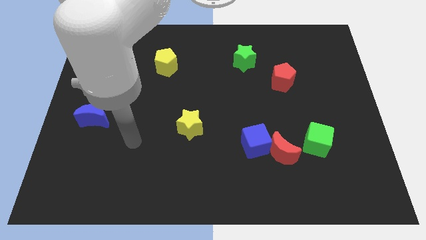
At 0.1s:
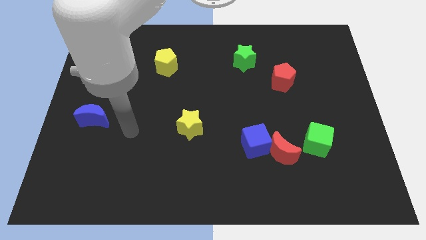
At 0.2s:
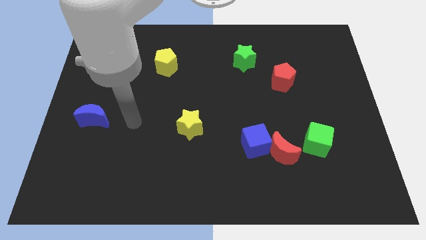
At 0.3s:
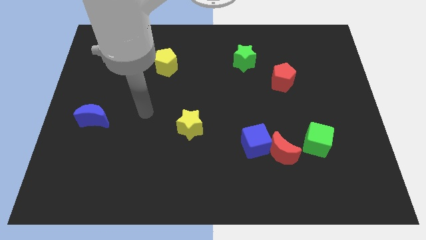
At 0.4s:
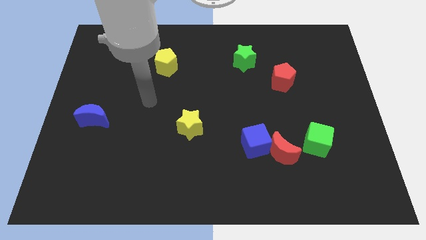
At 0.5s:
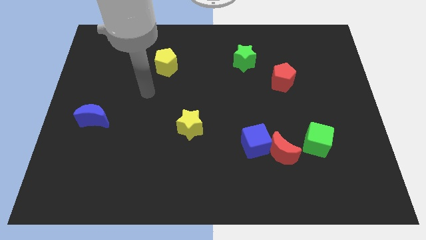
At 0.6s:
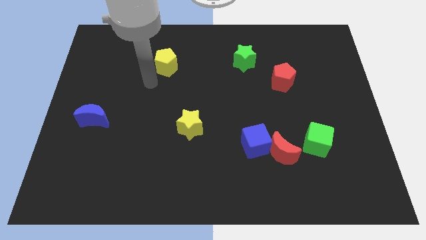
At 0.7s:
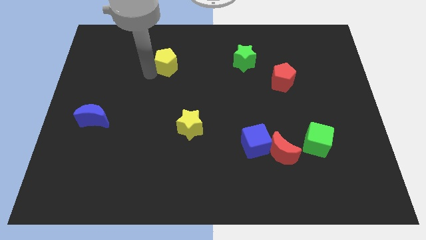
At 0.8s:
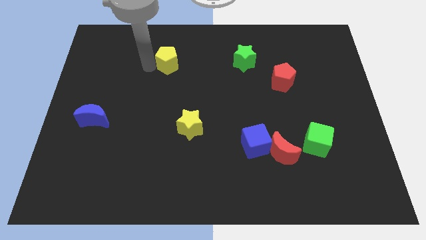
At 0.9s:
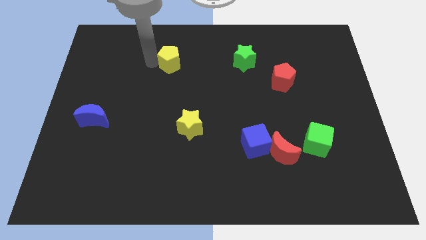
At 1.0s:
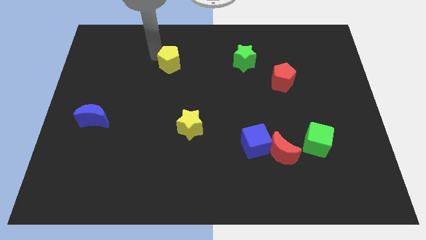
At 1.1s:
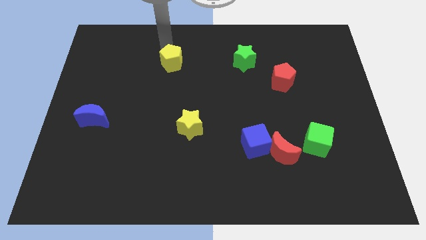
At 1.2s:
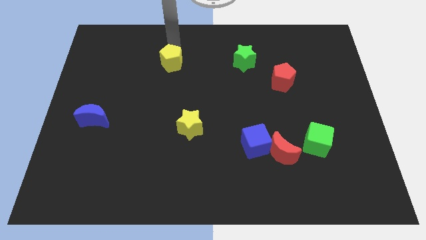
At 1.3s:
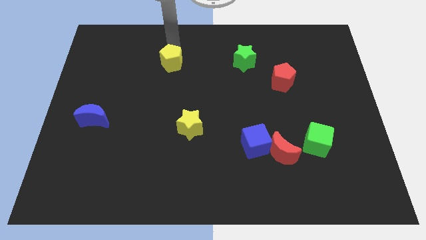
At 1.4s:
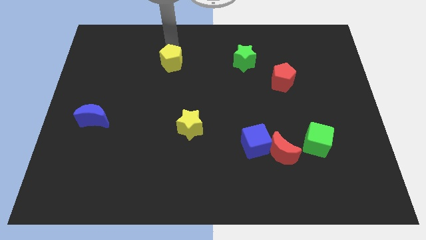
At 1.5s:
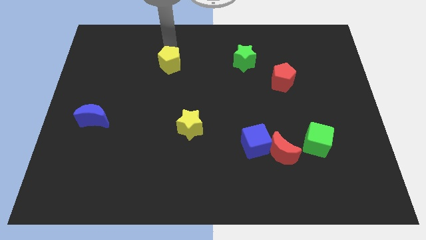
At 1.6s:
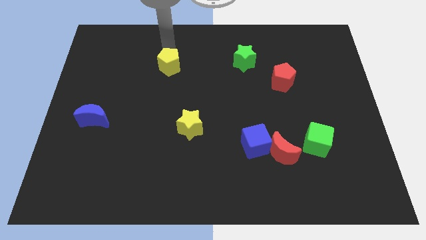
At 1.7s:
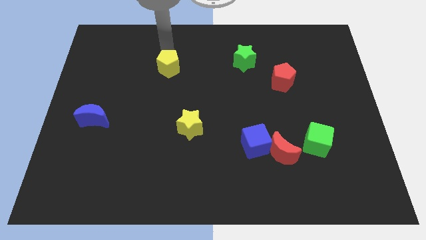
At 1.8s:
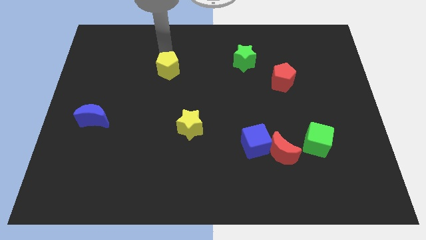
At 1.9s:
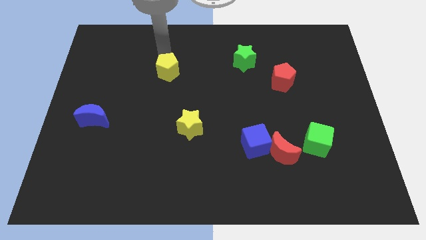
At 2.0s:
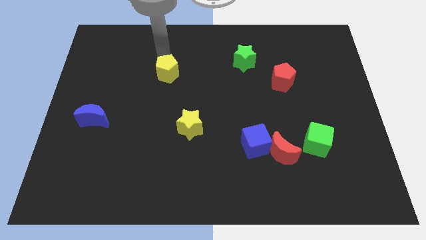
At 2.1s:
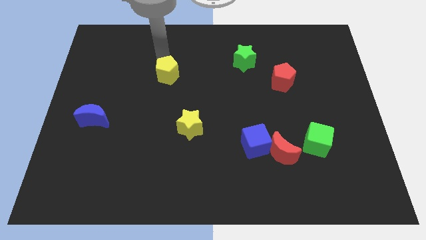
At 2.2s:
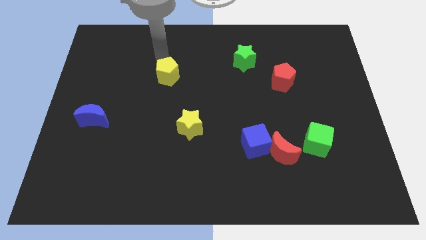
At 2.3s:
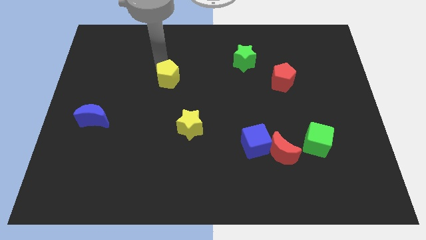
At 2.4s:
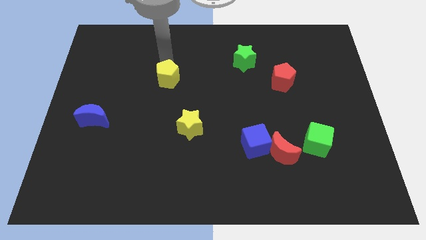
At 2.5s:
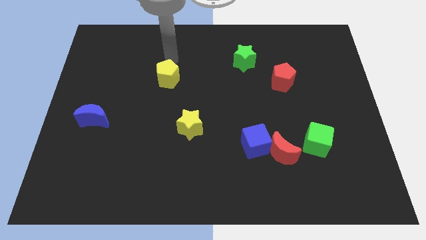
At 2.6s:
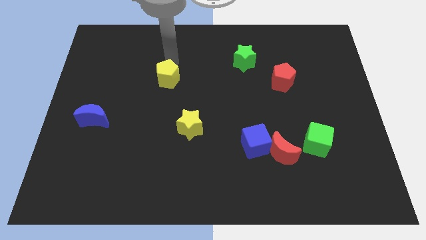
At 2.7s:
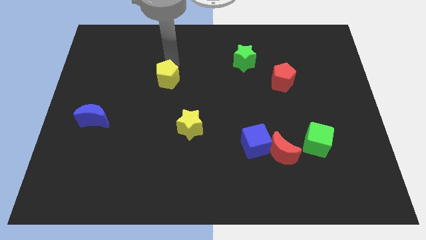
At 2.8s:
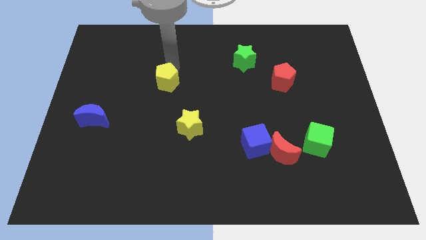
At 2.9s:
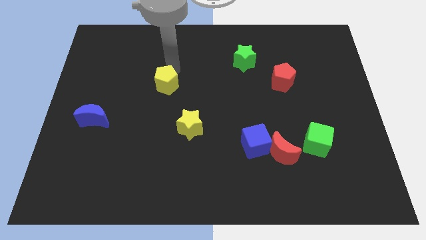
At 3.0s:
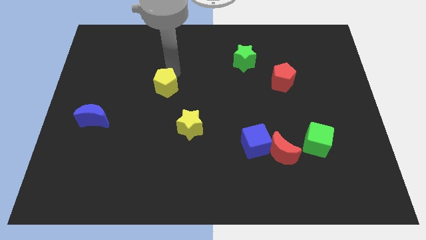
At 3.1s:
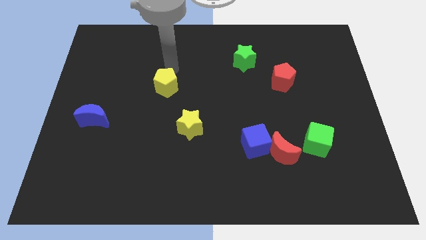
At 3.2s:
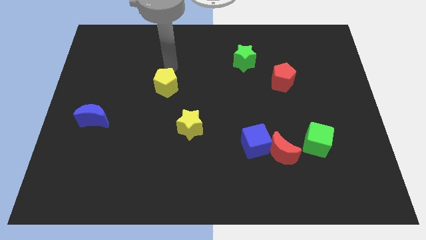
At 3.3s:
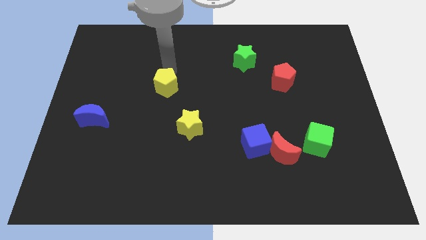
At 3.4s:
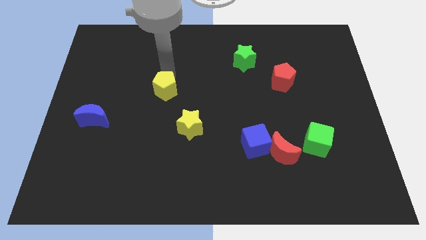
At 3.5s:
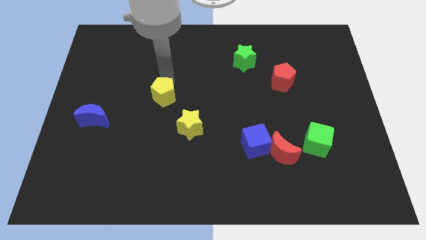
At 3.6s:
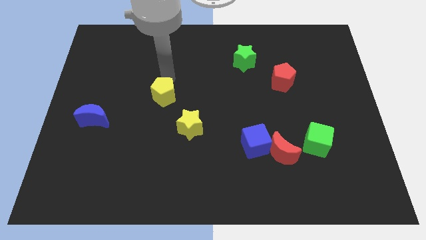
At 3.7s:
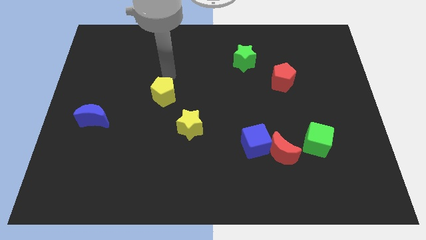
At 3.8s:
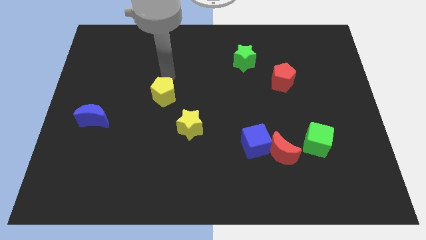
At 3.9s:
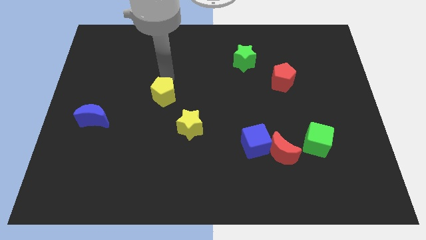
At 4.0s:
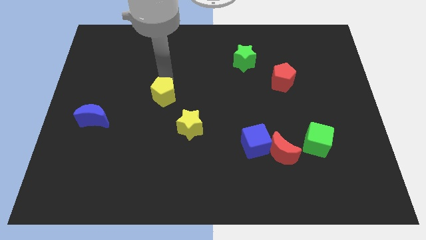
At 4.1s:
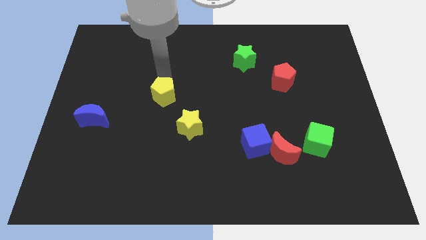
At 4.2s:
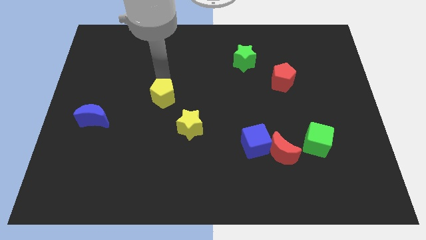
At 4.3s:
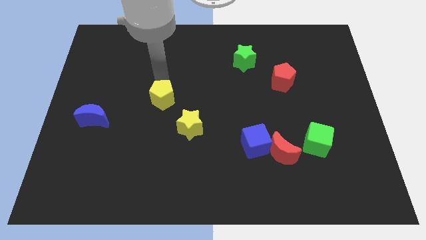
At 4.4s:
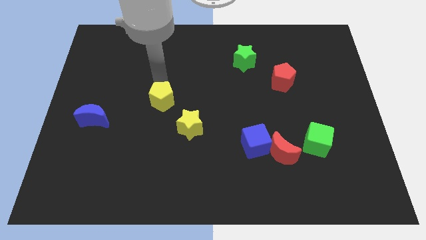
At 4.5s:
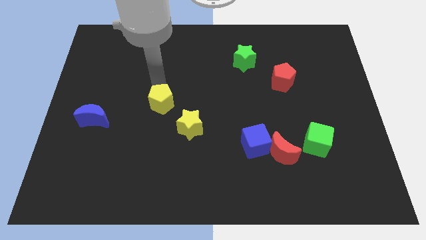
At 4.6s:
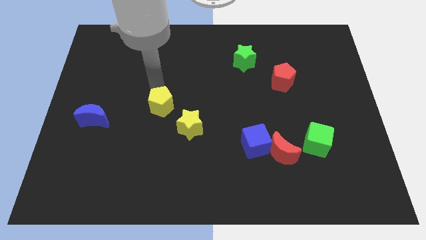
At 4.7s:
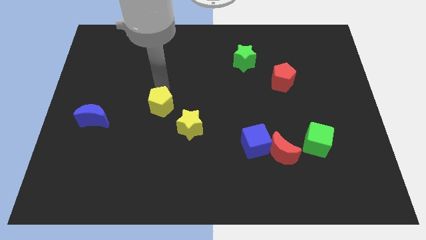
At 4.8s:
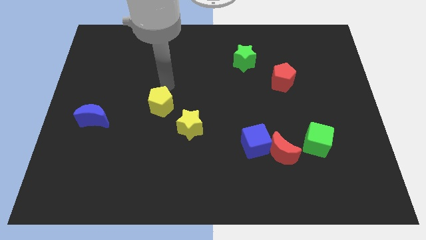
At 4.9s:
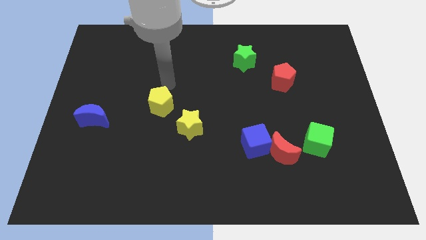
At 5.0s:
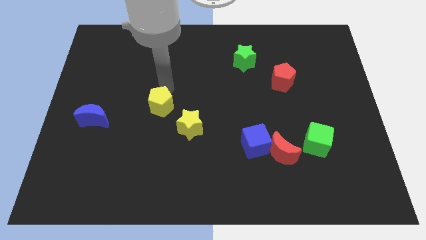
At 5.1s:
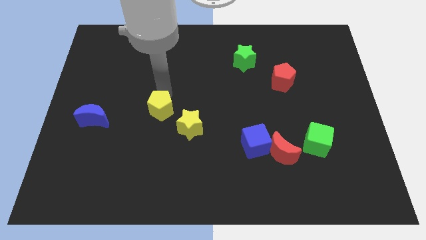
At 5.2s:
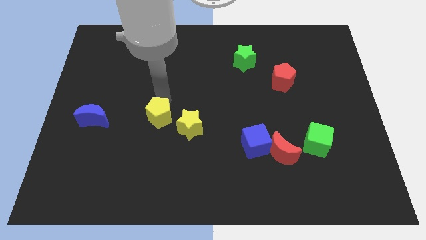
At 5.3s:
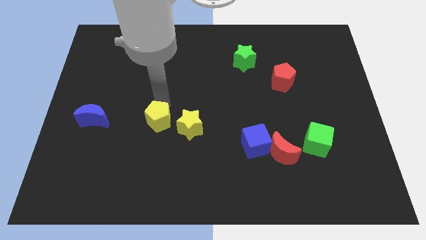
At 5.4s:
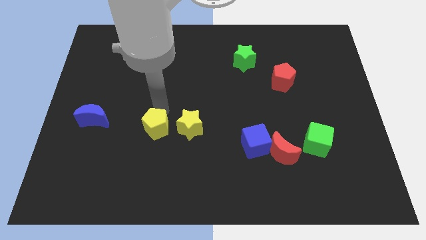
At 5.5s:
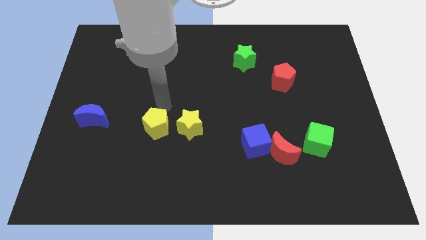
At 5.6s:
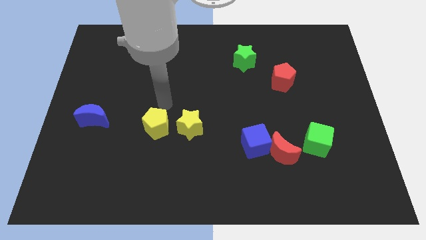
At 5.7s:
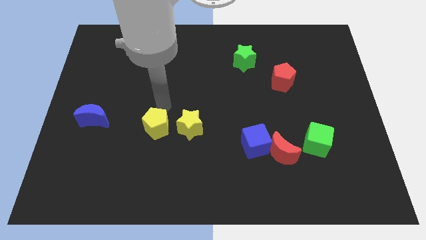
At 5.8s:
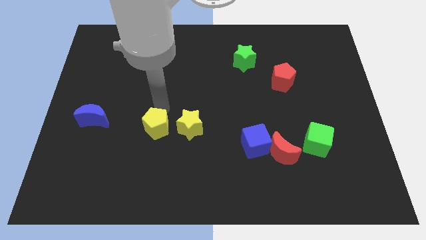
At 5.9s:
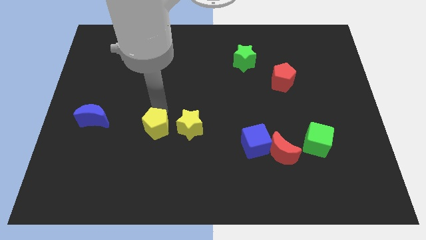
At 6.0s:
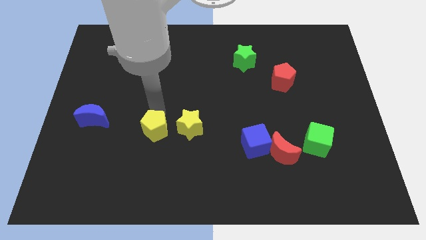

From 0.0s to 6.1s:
slide the yellow pentagon downwards

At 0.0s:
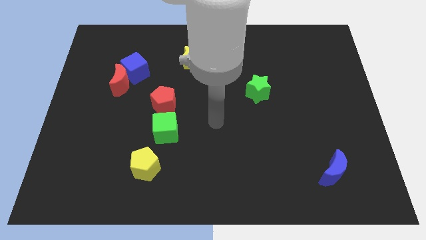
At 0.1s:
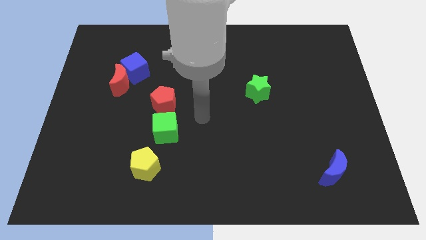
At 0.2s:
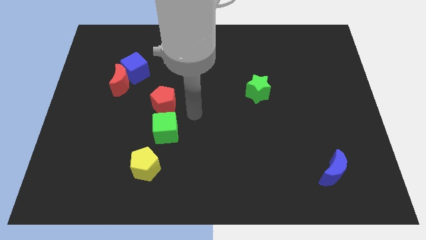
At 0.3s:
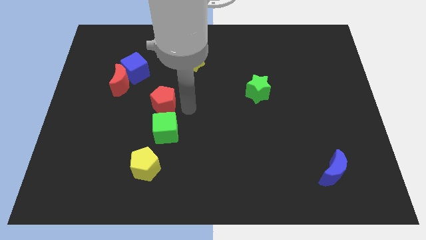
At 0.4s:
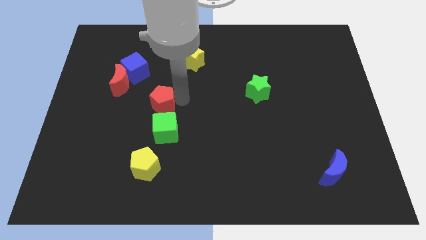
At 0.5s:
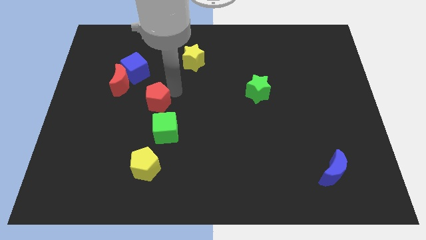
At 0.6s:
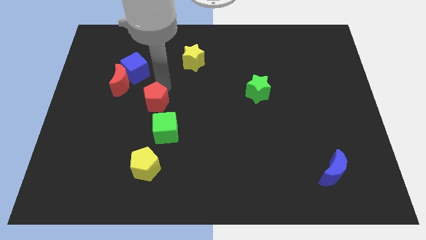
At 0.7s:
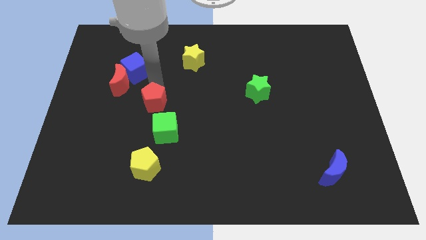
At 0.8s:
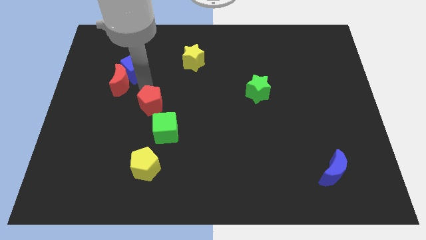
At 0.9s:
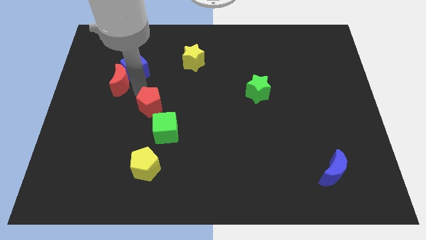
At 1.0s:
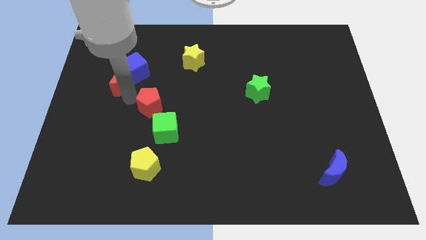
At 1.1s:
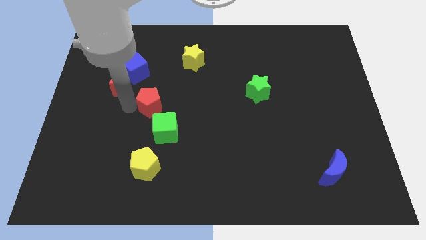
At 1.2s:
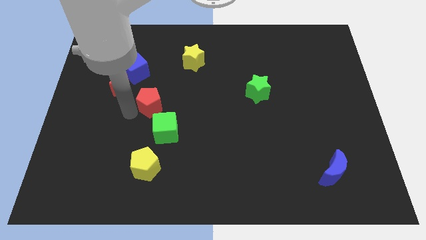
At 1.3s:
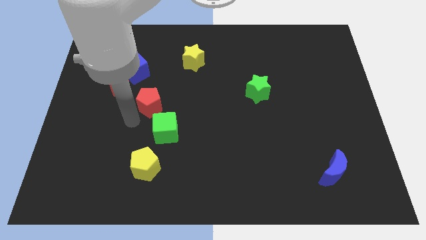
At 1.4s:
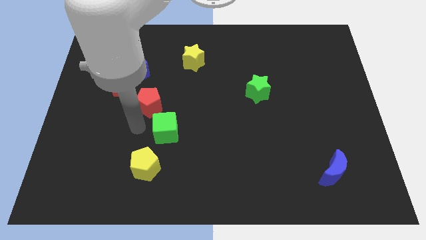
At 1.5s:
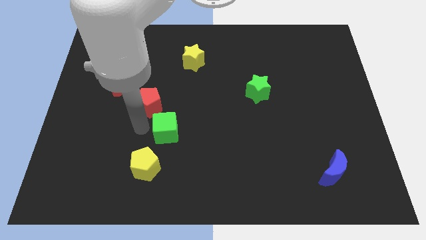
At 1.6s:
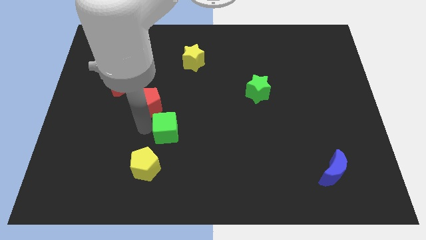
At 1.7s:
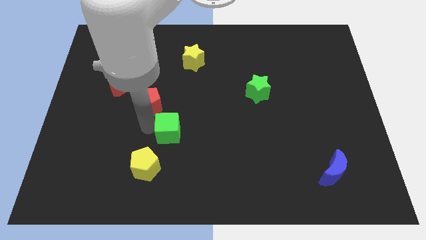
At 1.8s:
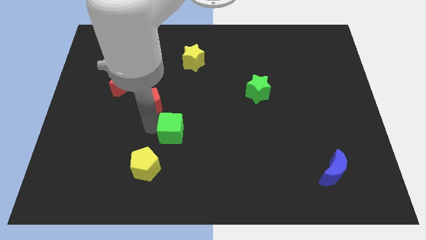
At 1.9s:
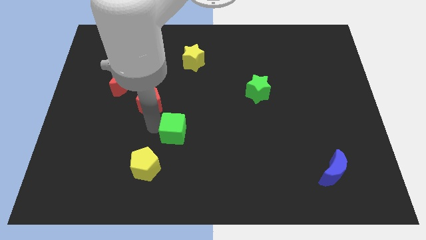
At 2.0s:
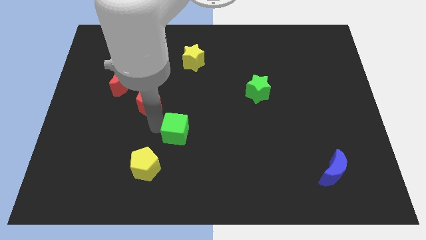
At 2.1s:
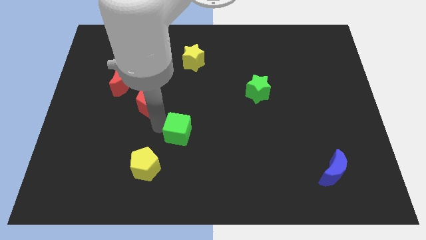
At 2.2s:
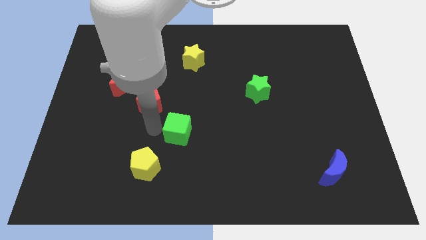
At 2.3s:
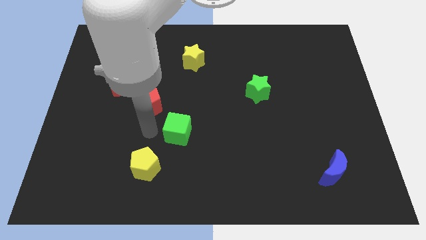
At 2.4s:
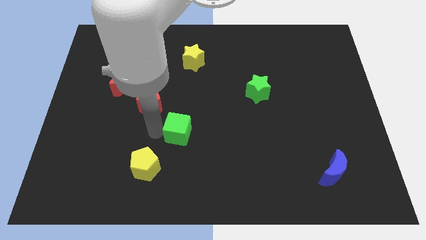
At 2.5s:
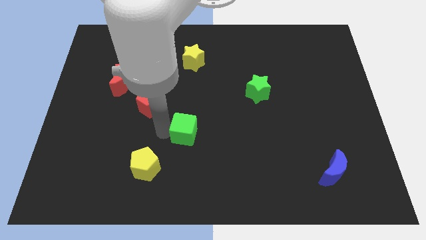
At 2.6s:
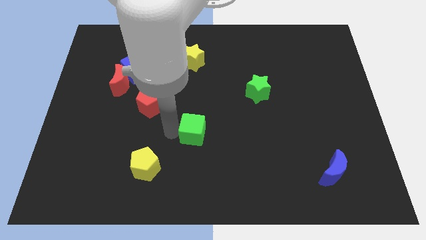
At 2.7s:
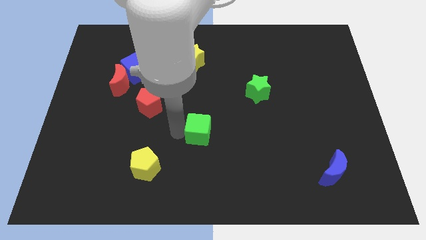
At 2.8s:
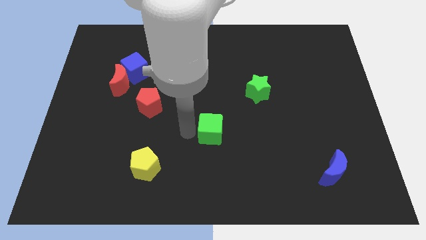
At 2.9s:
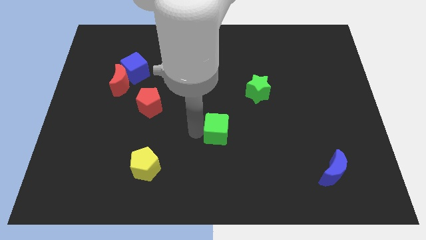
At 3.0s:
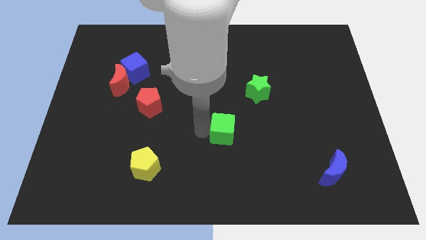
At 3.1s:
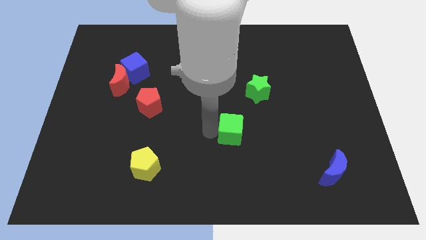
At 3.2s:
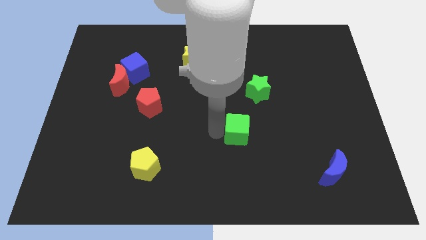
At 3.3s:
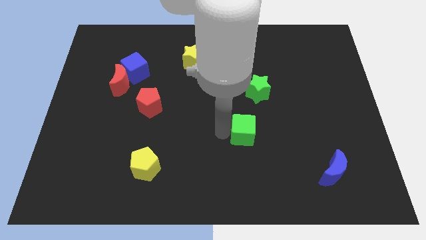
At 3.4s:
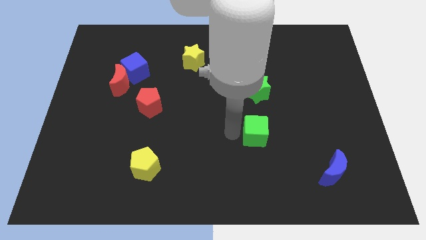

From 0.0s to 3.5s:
slide the green cube to the right
